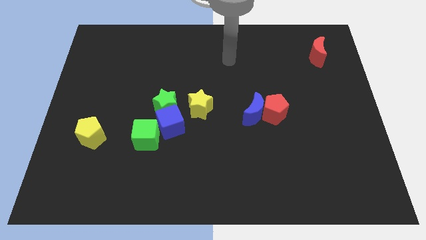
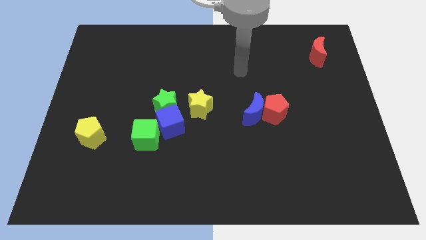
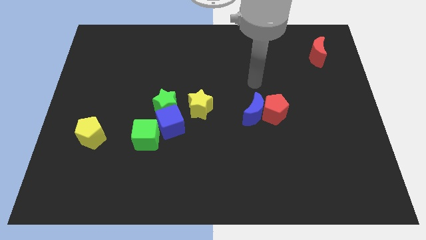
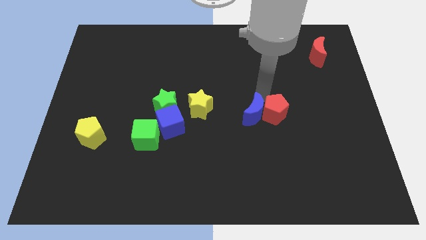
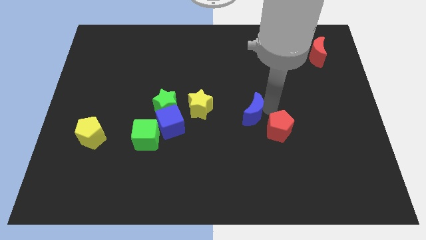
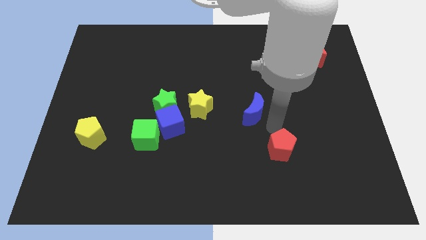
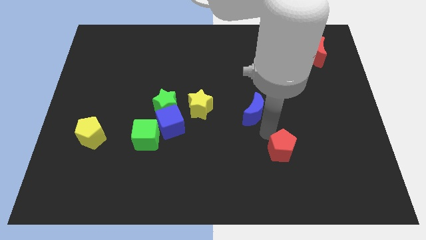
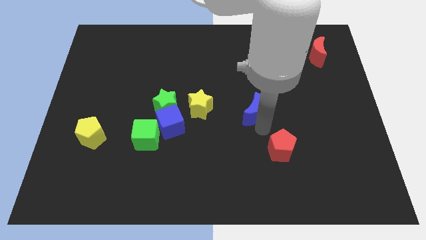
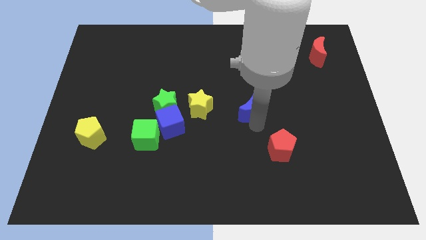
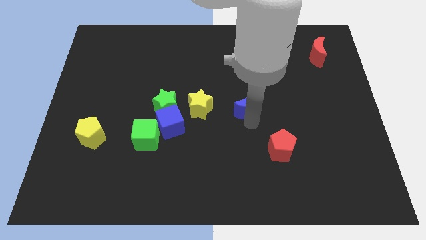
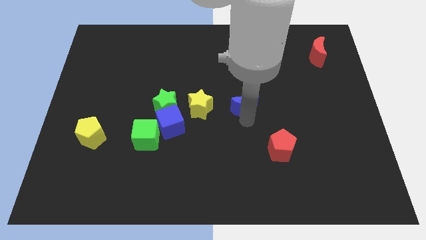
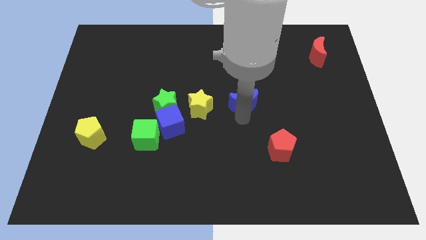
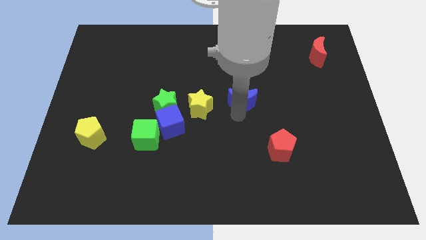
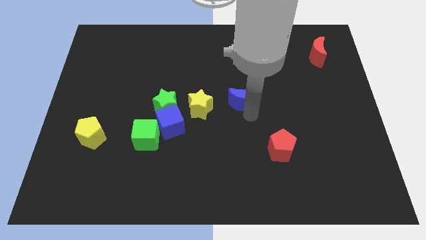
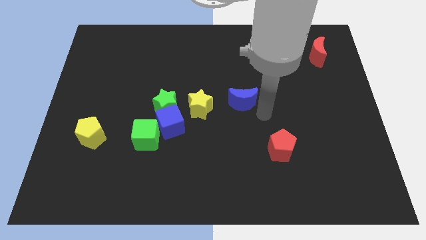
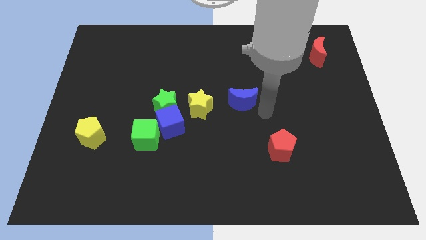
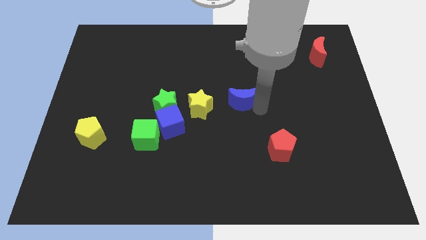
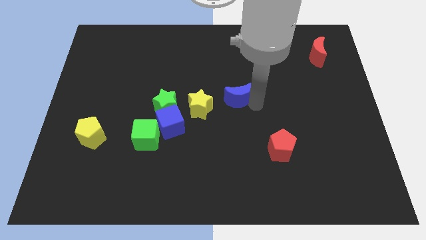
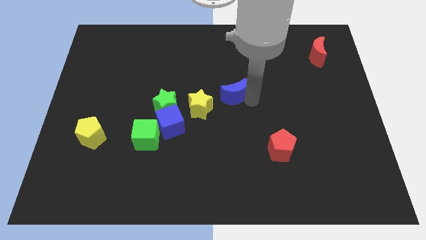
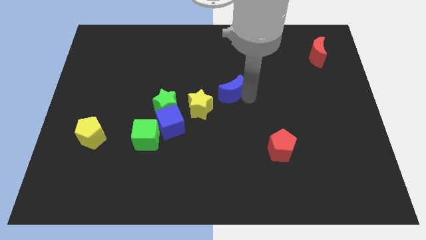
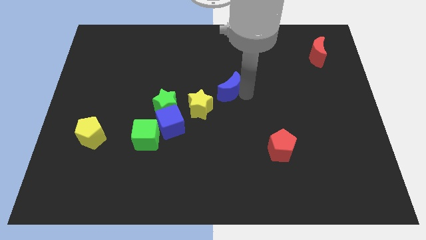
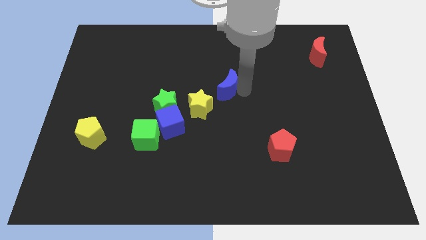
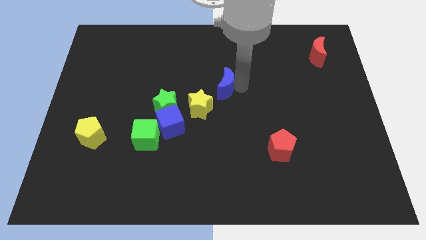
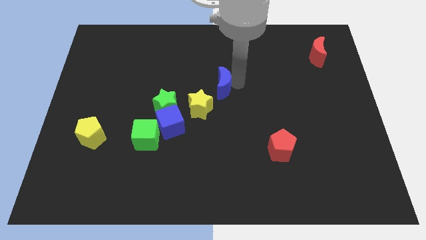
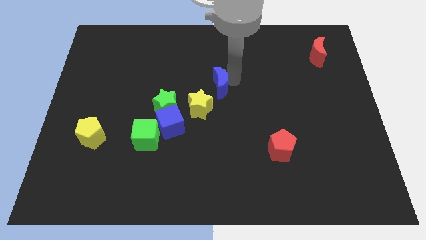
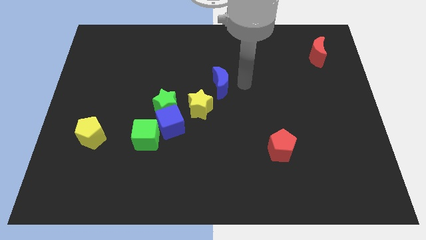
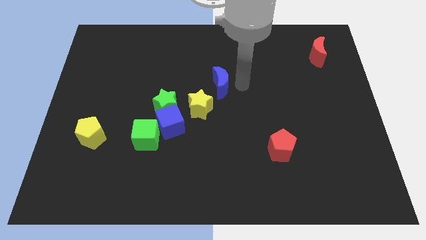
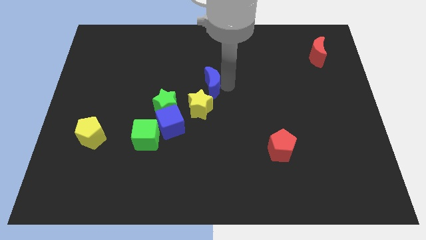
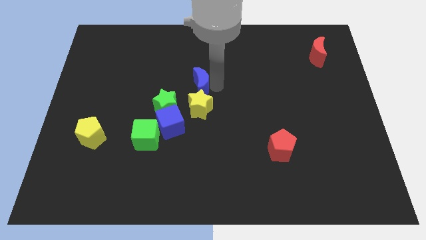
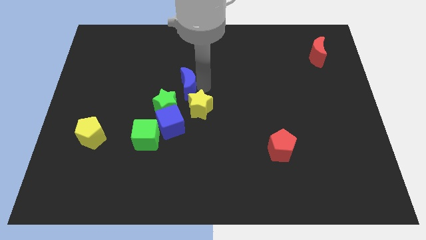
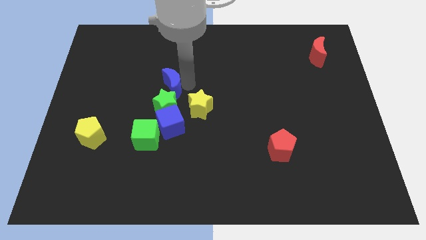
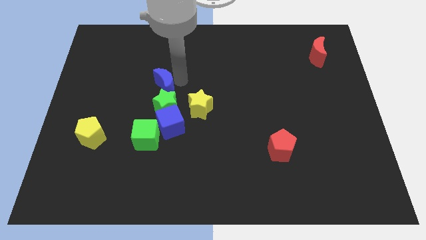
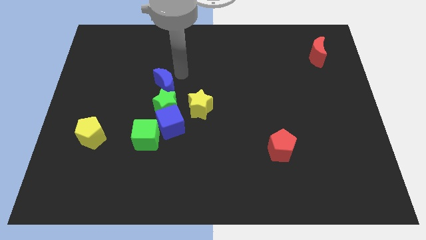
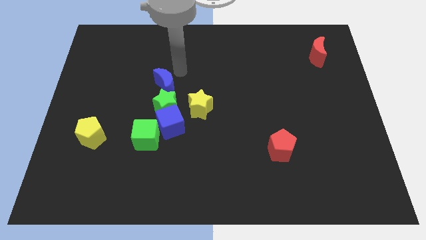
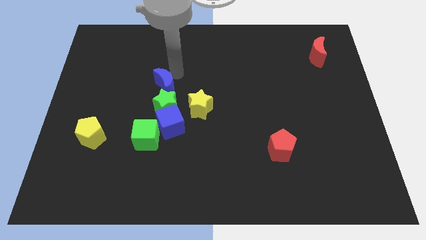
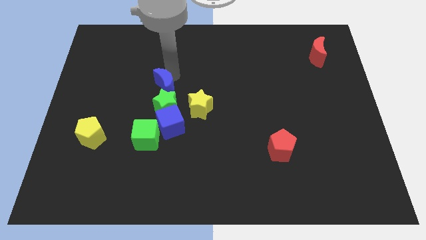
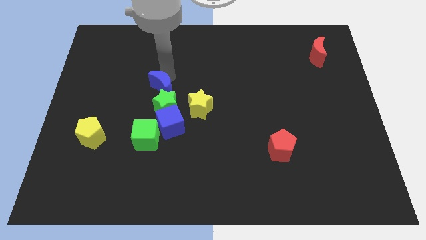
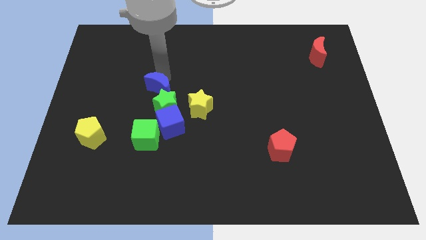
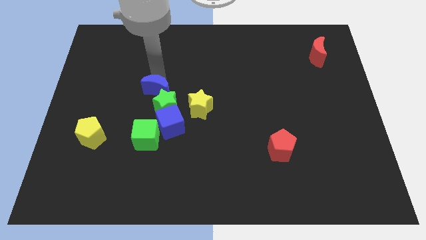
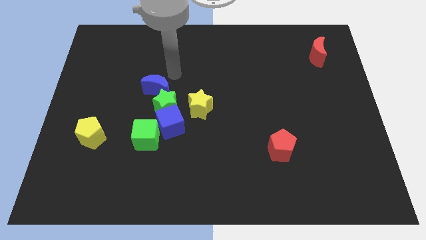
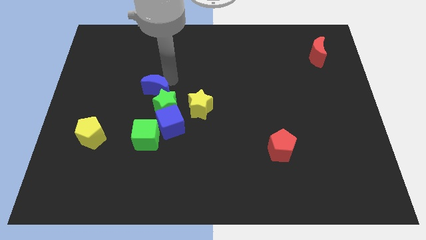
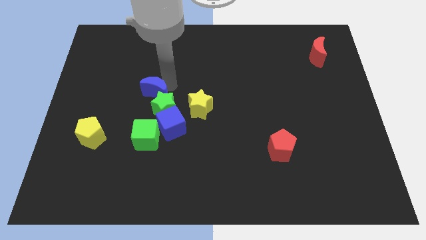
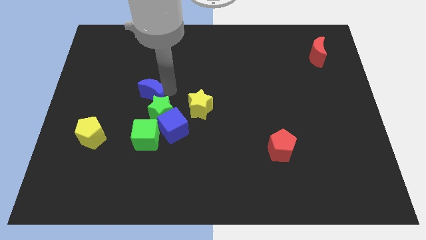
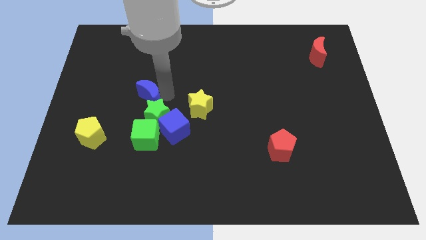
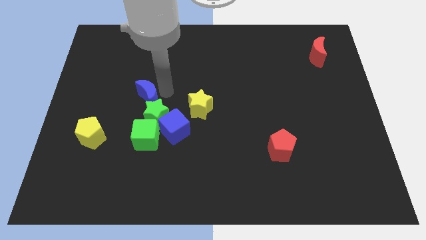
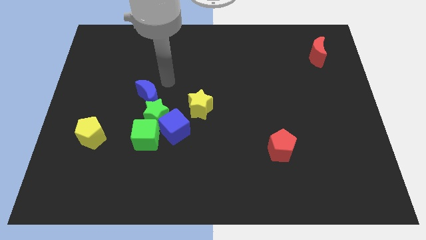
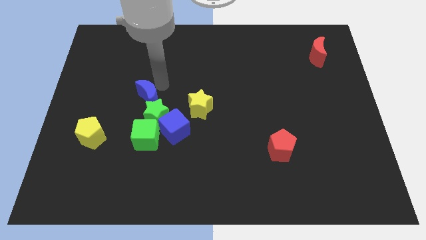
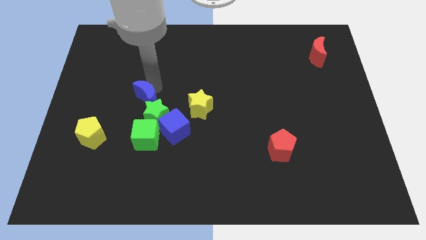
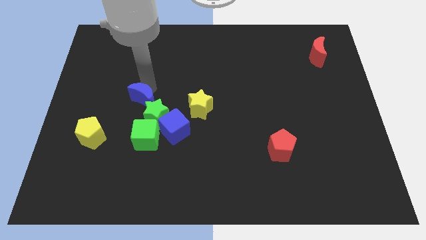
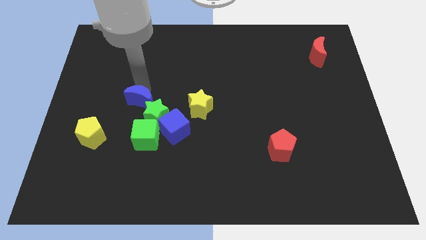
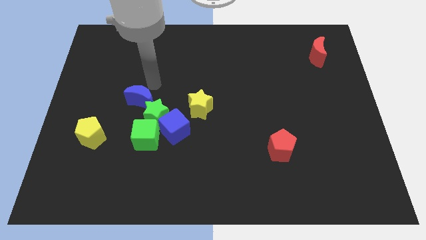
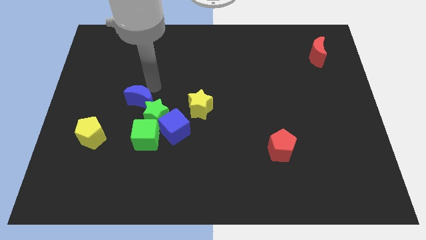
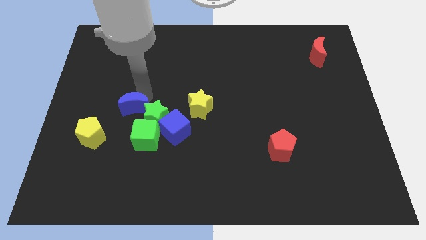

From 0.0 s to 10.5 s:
move the blue moon diagonally up and to the left of the green cube

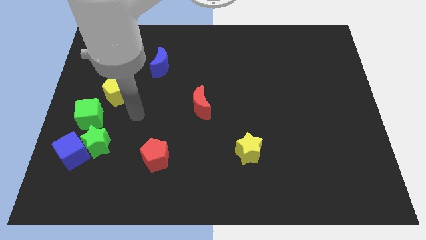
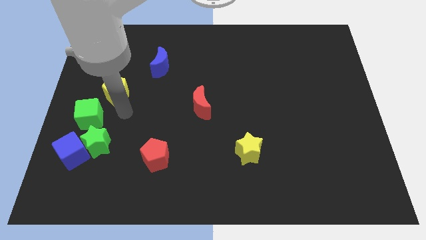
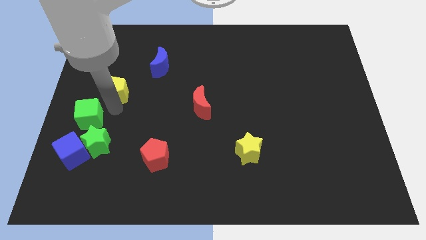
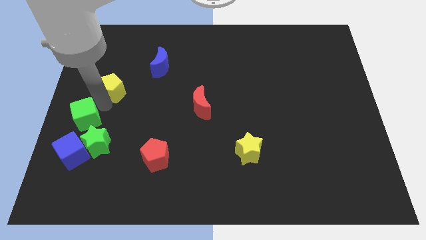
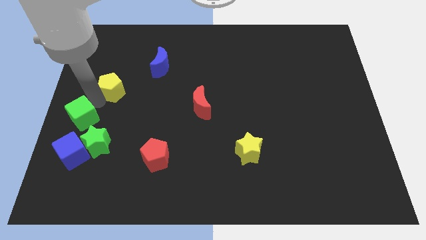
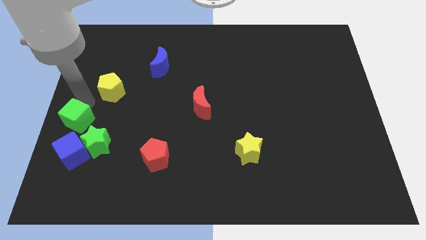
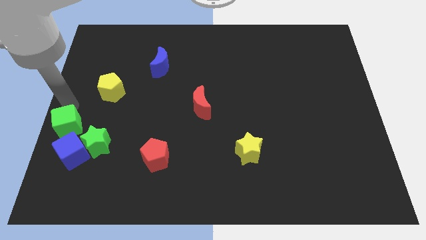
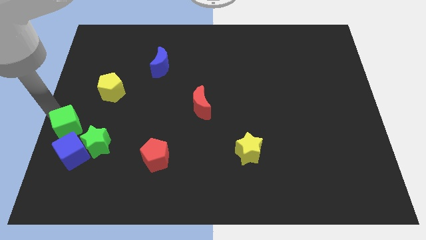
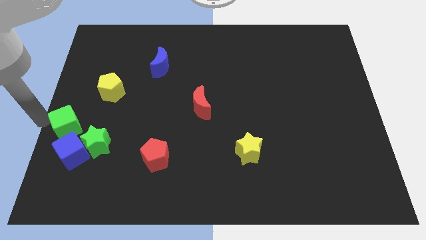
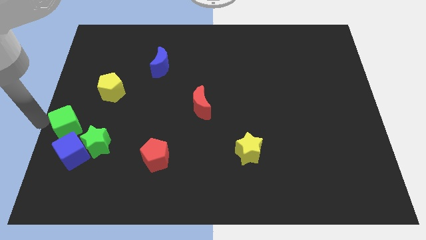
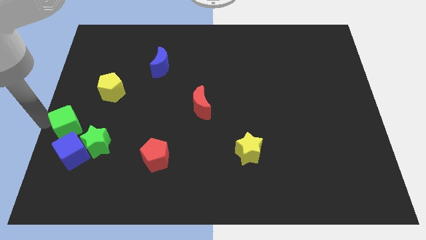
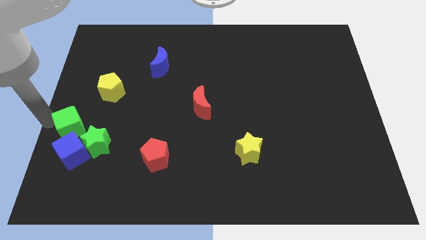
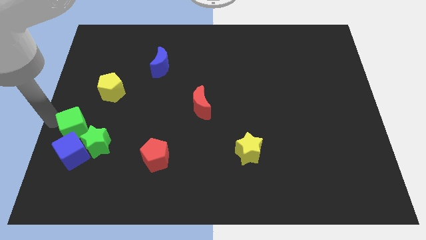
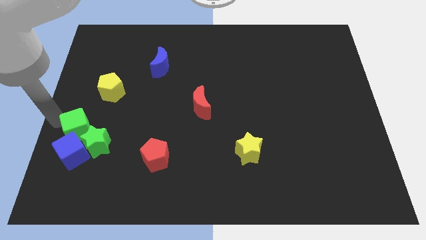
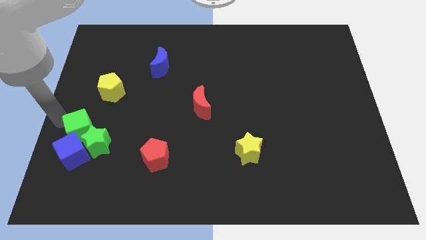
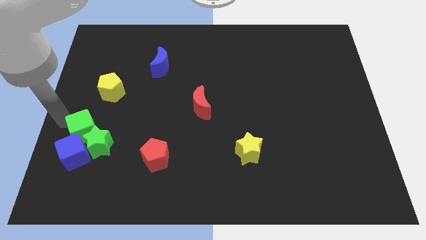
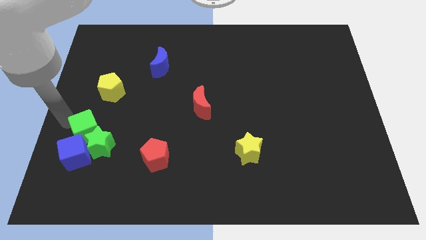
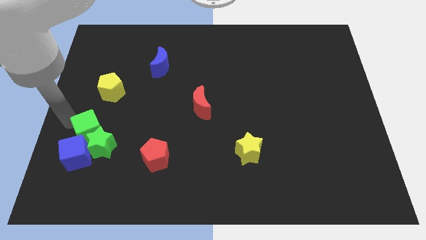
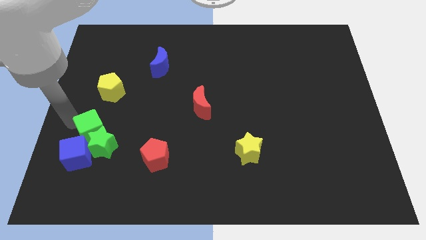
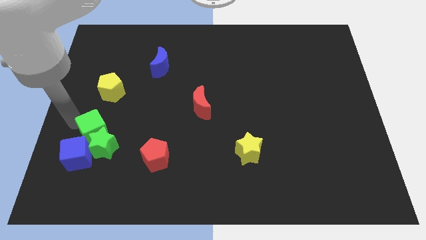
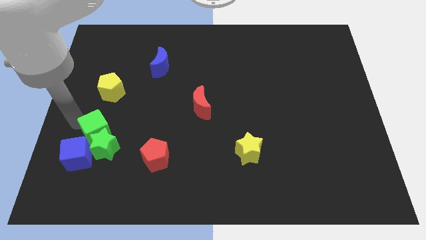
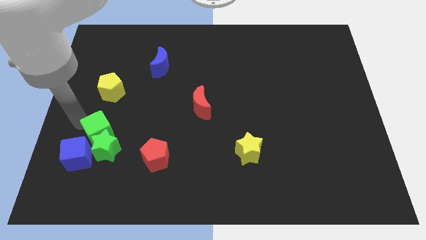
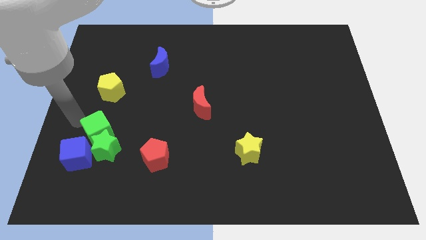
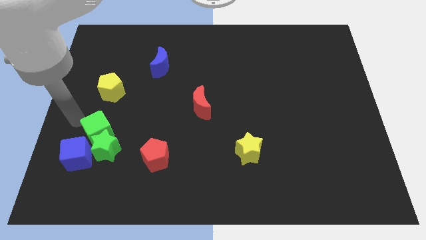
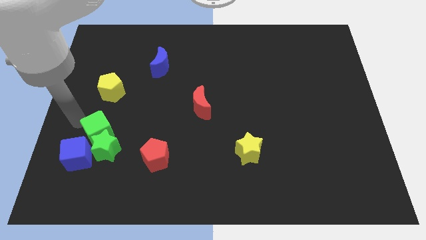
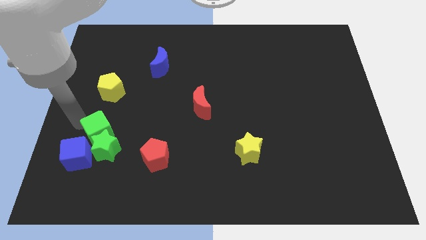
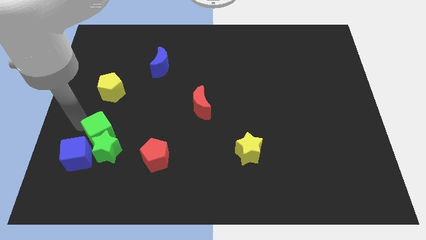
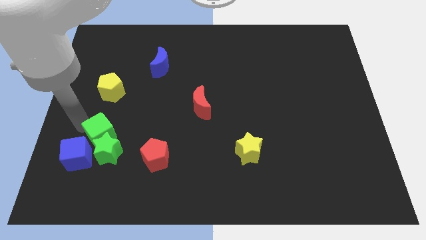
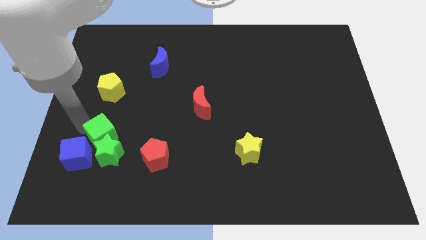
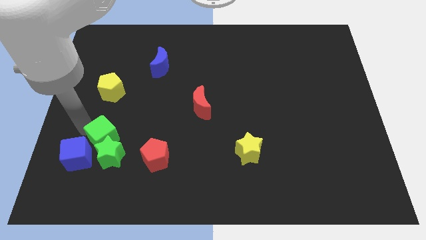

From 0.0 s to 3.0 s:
move the green cube to the right of the blue cube
